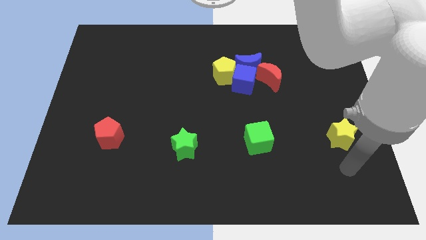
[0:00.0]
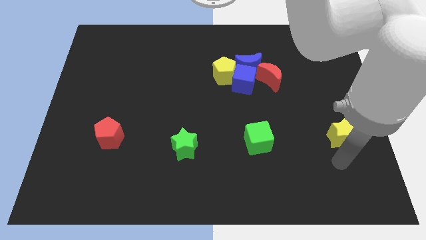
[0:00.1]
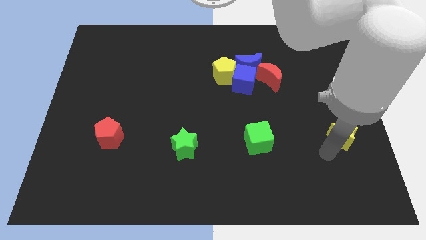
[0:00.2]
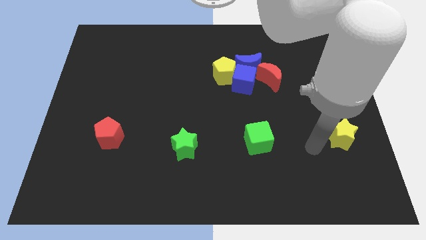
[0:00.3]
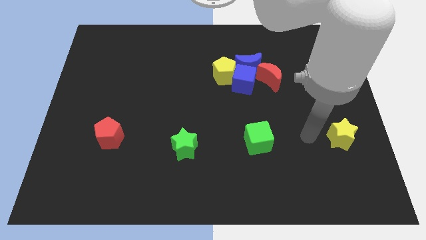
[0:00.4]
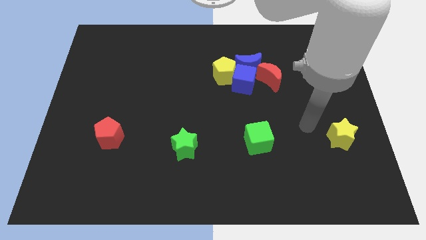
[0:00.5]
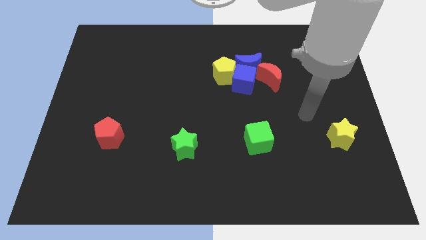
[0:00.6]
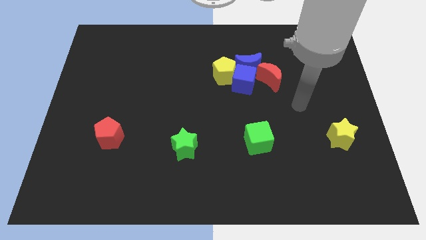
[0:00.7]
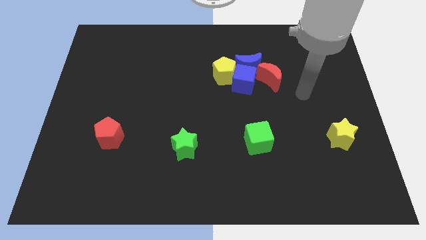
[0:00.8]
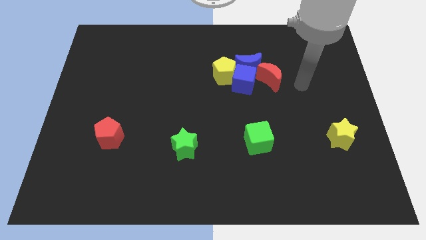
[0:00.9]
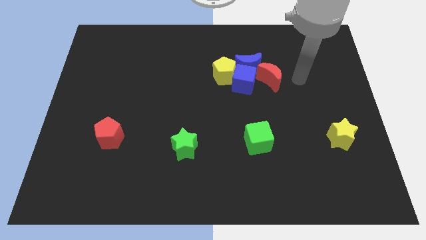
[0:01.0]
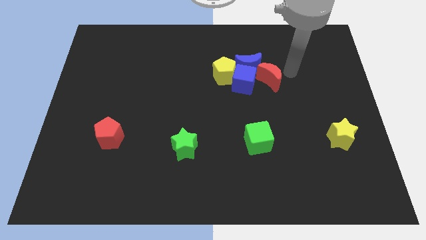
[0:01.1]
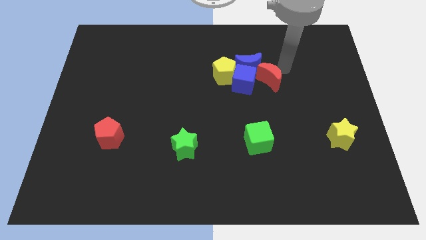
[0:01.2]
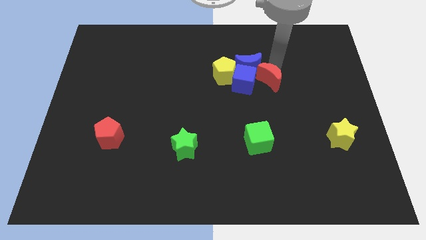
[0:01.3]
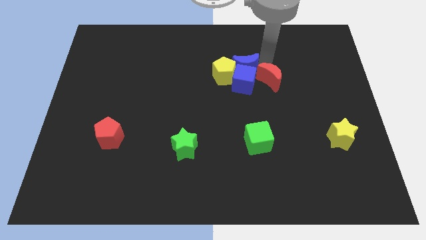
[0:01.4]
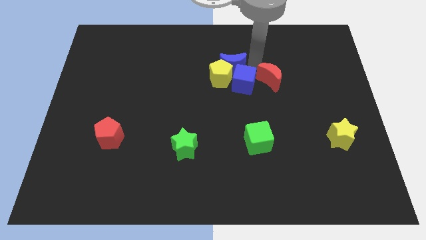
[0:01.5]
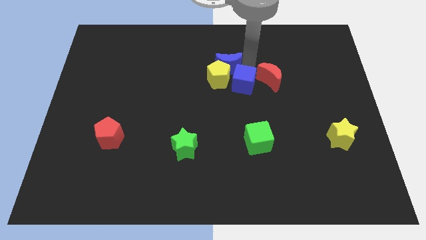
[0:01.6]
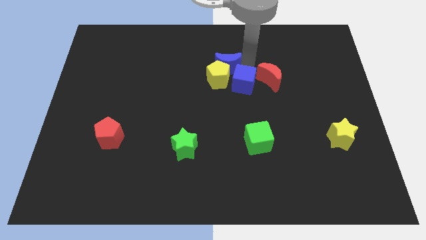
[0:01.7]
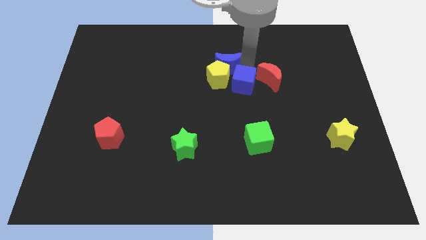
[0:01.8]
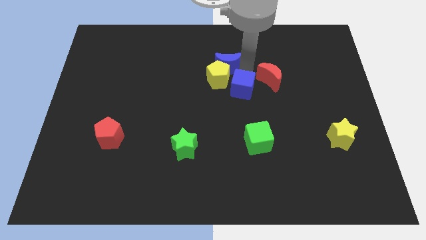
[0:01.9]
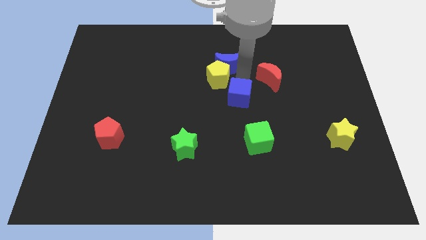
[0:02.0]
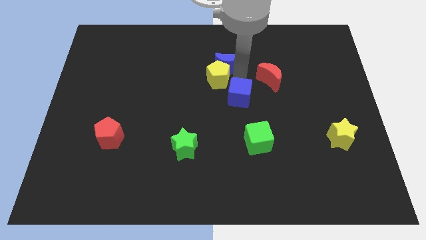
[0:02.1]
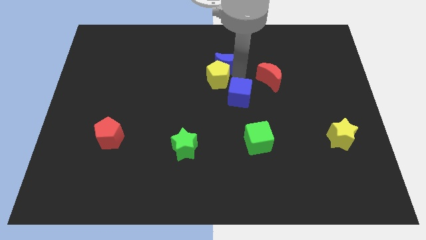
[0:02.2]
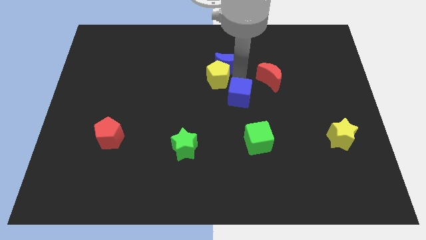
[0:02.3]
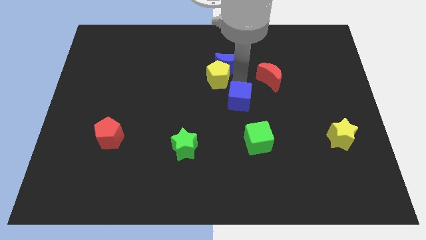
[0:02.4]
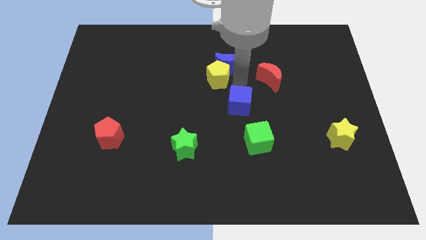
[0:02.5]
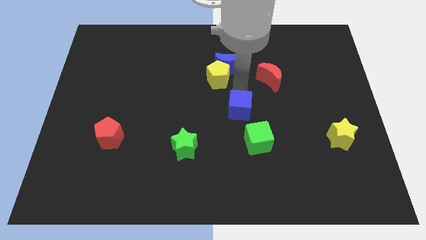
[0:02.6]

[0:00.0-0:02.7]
move the blue cube away from the clump

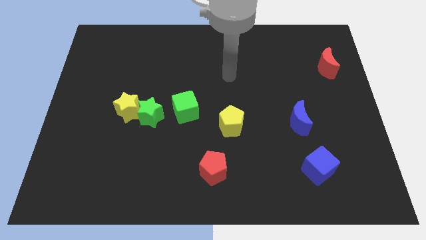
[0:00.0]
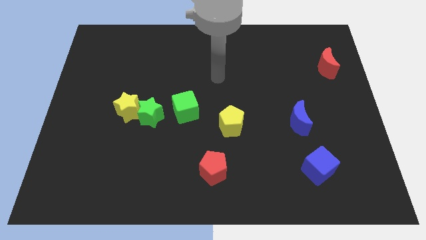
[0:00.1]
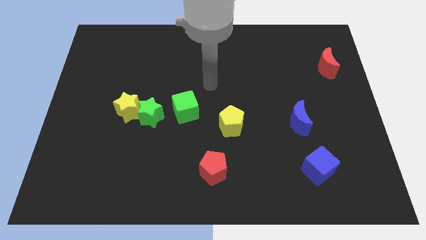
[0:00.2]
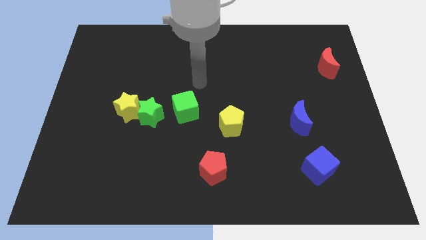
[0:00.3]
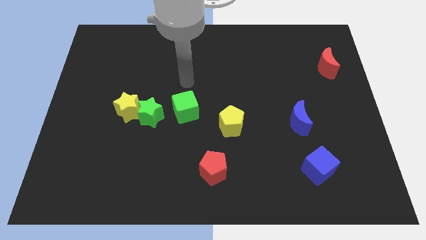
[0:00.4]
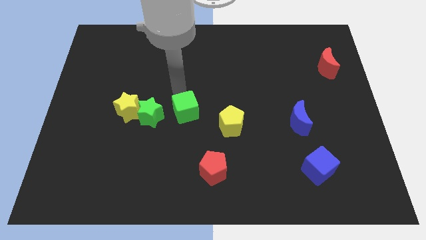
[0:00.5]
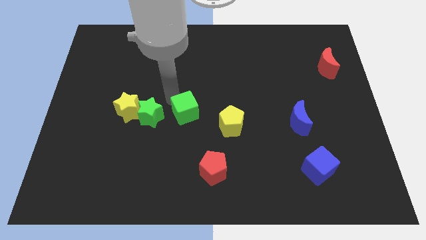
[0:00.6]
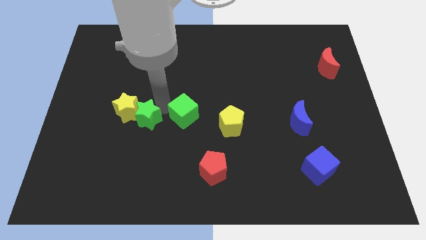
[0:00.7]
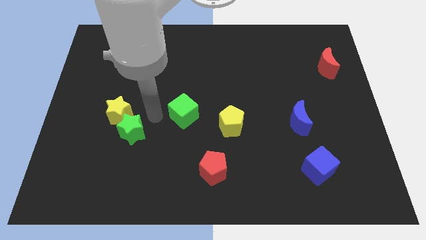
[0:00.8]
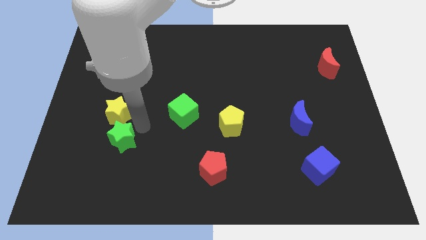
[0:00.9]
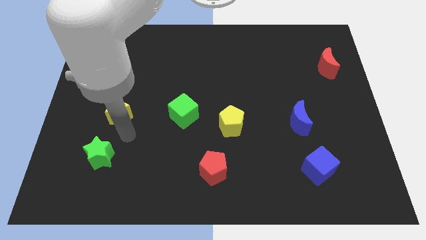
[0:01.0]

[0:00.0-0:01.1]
pull the yellow star apart from the green star

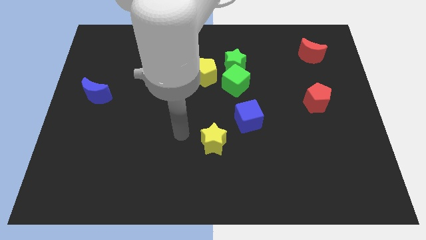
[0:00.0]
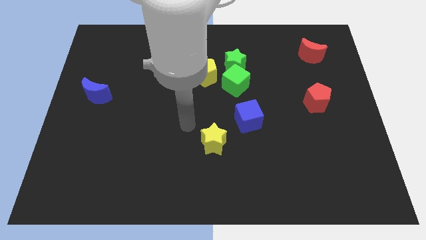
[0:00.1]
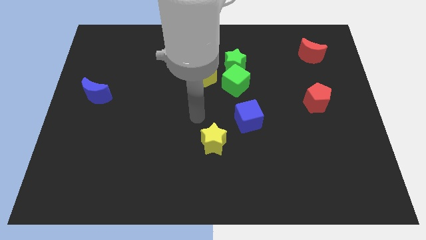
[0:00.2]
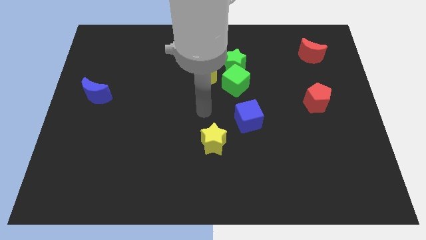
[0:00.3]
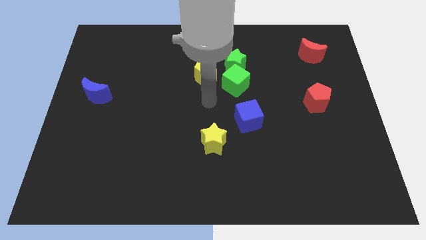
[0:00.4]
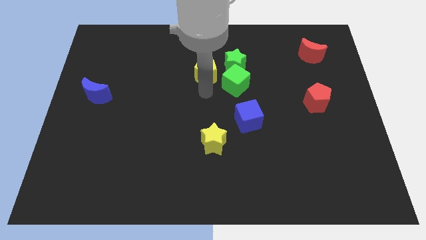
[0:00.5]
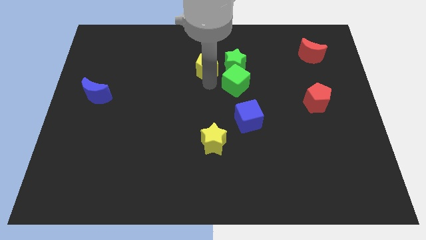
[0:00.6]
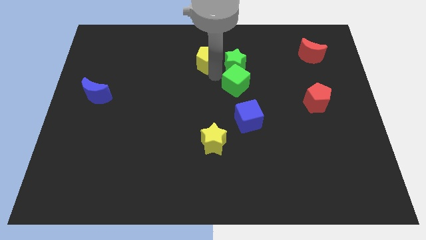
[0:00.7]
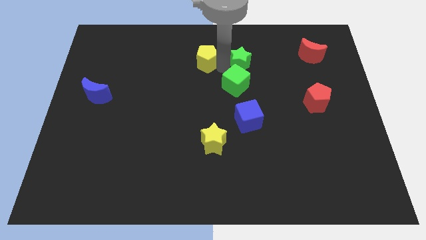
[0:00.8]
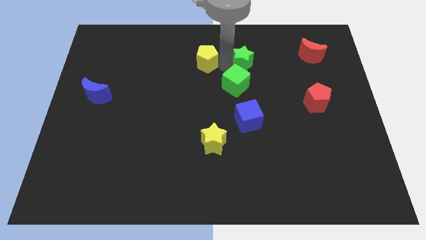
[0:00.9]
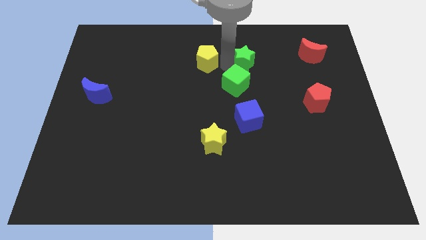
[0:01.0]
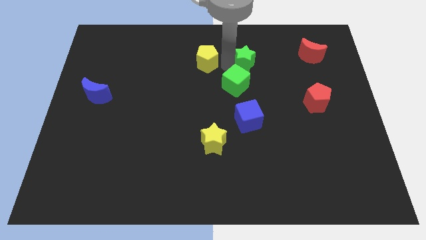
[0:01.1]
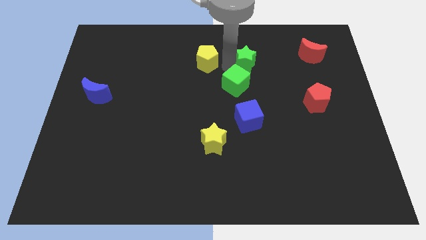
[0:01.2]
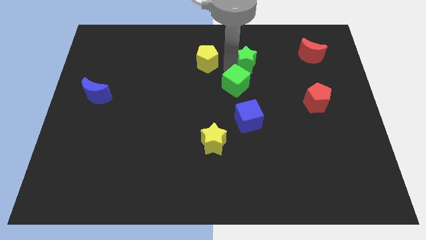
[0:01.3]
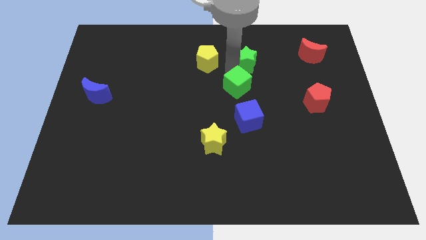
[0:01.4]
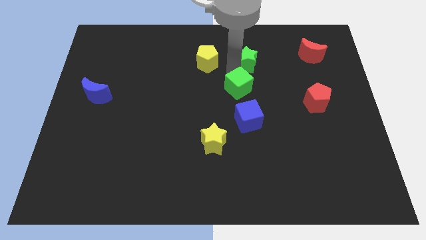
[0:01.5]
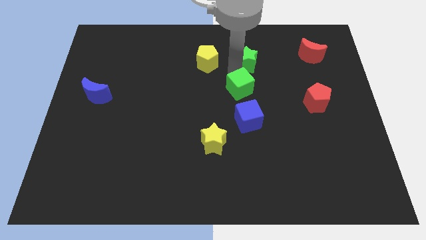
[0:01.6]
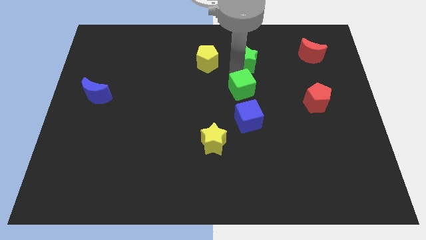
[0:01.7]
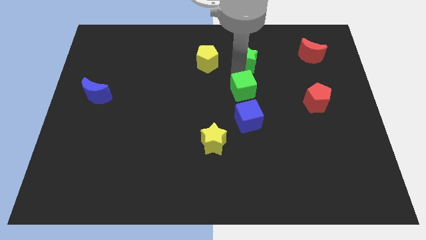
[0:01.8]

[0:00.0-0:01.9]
pull the green cube apart from the green star and yellow pentagon

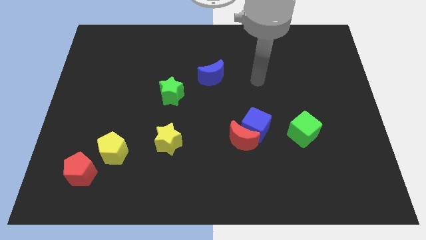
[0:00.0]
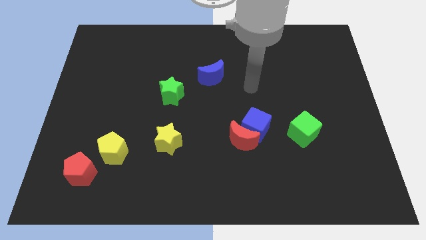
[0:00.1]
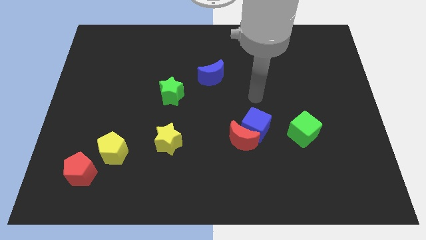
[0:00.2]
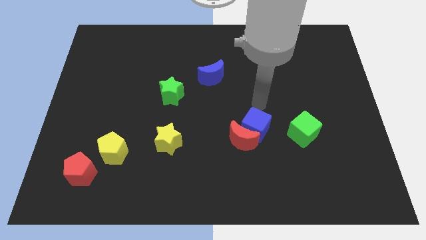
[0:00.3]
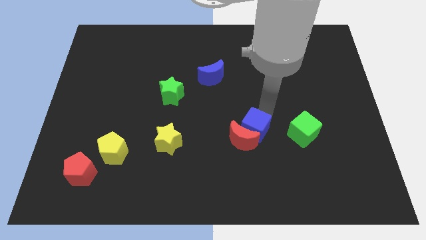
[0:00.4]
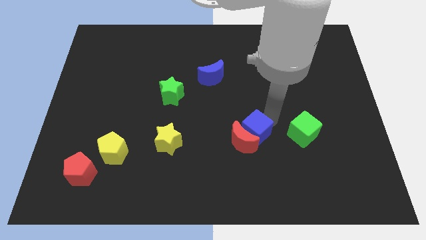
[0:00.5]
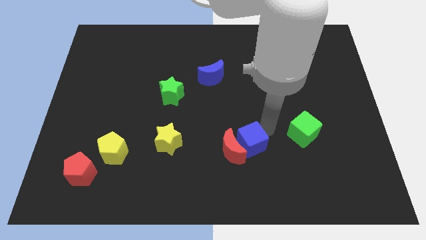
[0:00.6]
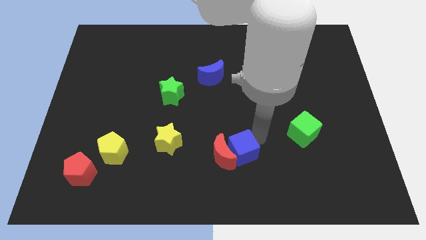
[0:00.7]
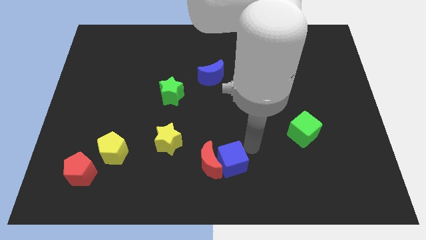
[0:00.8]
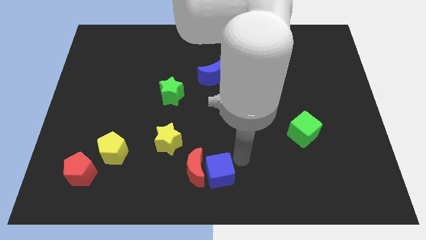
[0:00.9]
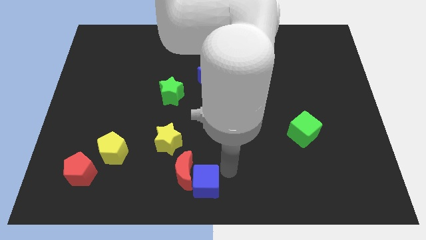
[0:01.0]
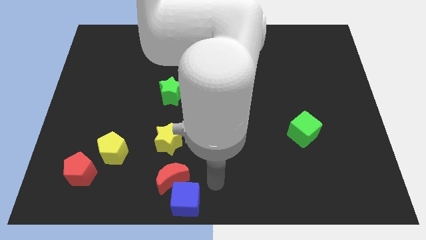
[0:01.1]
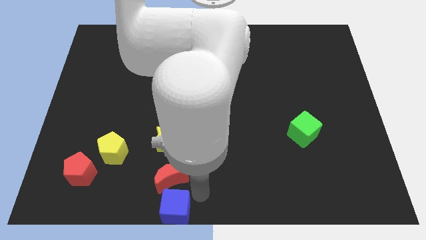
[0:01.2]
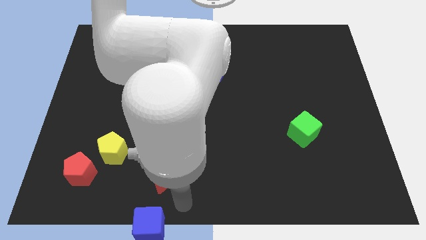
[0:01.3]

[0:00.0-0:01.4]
separate the red moon from the blue cube

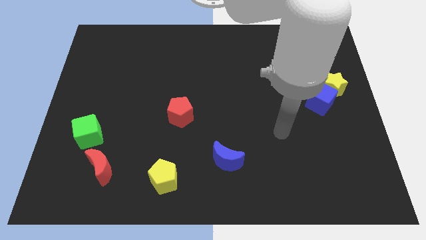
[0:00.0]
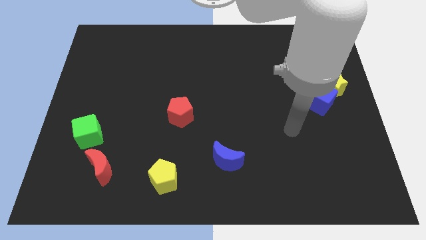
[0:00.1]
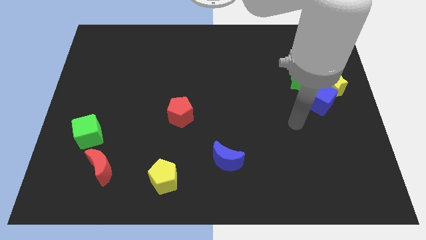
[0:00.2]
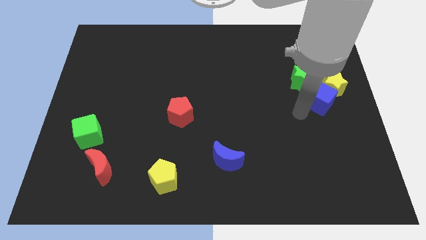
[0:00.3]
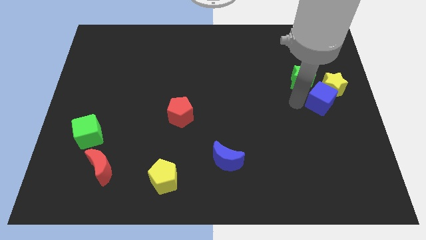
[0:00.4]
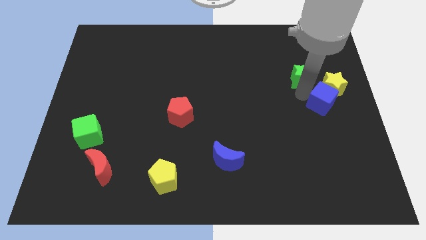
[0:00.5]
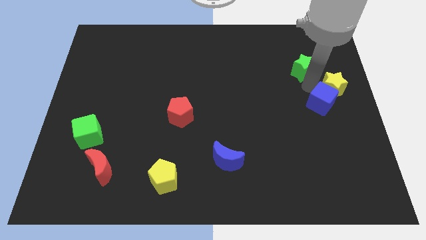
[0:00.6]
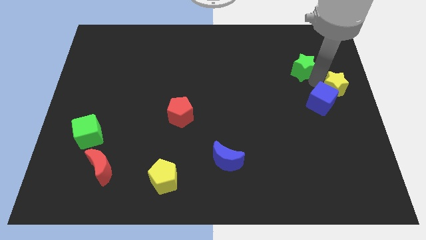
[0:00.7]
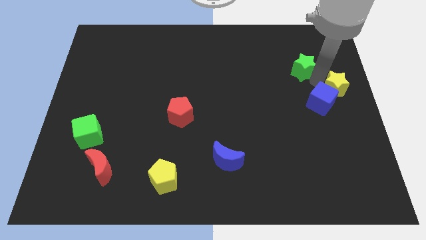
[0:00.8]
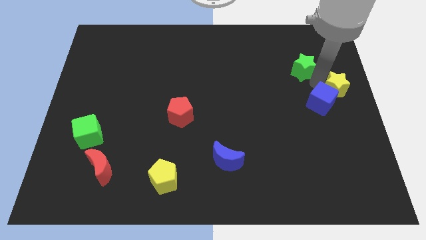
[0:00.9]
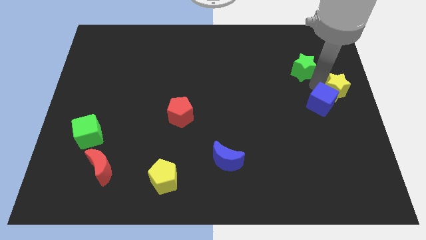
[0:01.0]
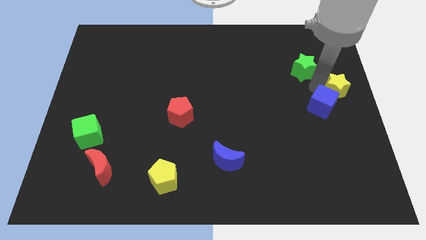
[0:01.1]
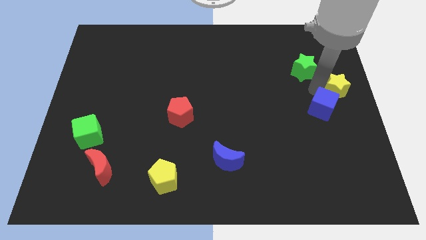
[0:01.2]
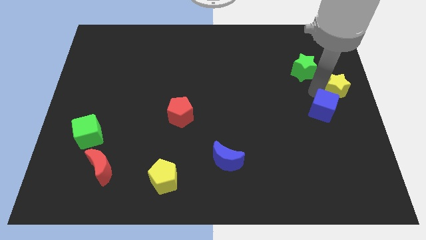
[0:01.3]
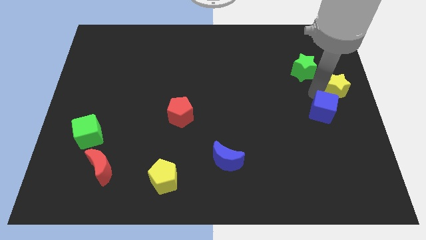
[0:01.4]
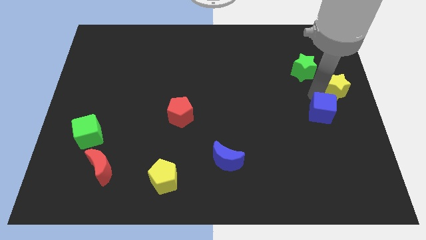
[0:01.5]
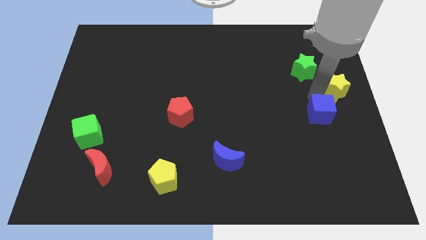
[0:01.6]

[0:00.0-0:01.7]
pull the blue cube apart from the yellow star and green star

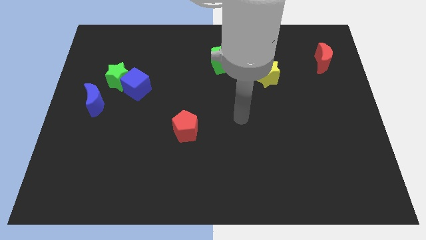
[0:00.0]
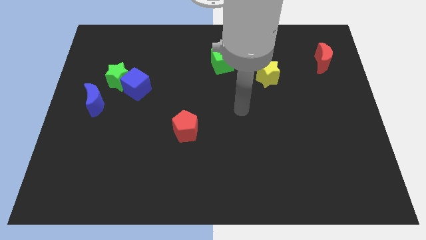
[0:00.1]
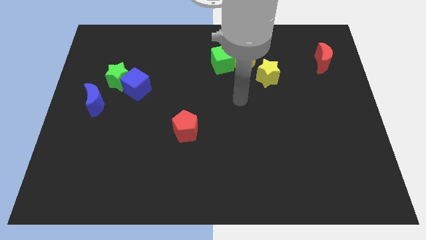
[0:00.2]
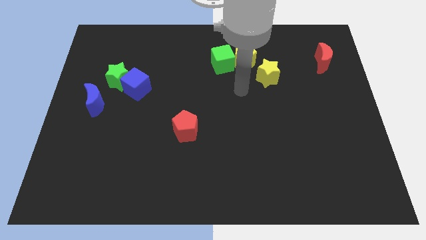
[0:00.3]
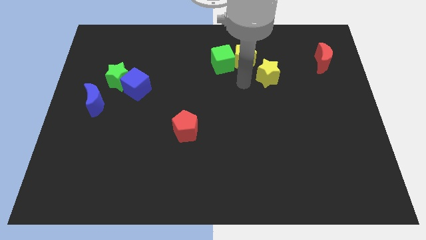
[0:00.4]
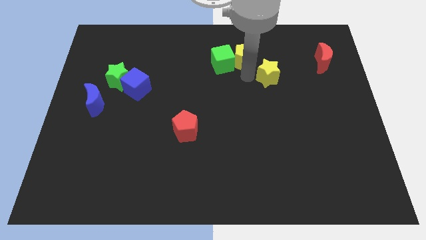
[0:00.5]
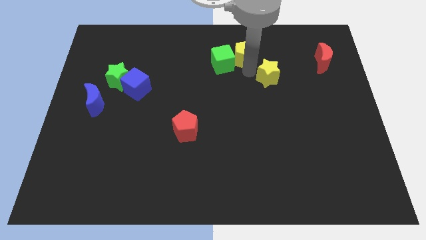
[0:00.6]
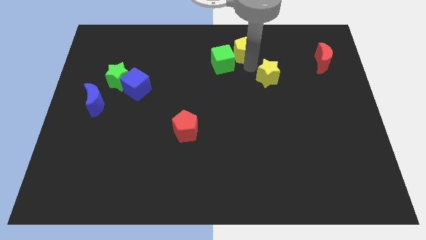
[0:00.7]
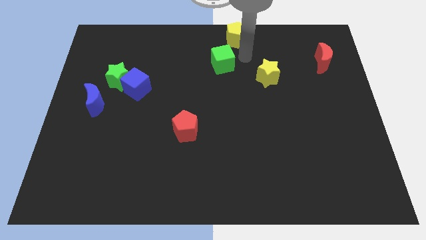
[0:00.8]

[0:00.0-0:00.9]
move the green cube away from the yellow pentagon
